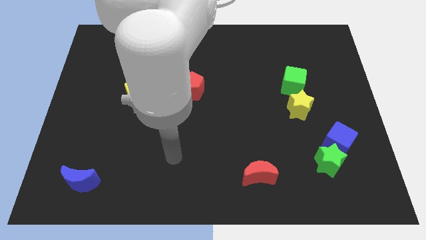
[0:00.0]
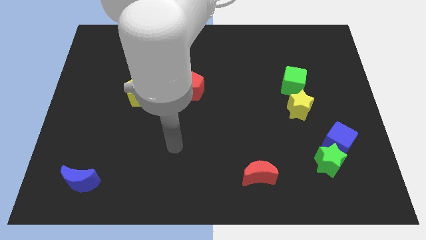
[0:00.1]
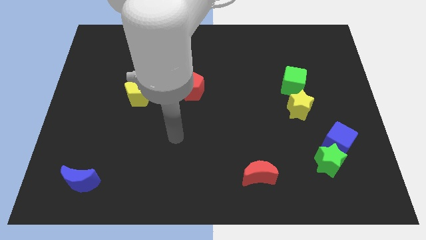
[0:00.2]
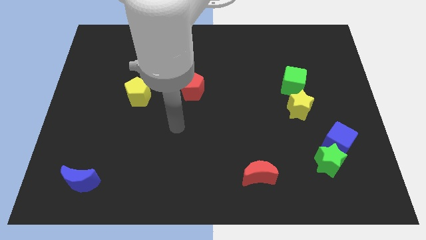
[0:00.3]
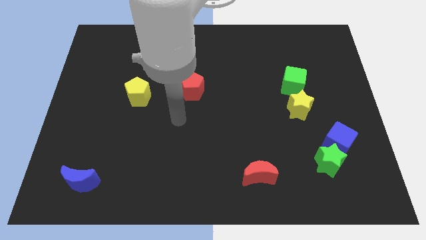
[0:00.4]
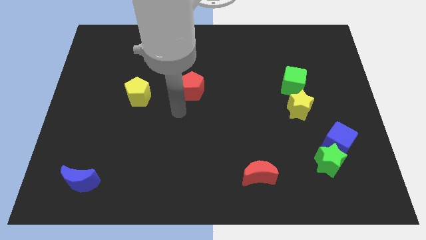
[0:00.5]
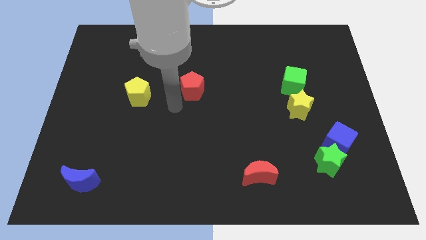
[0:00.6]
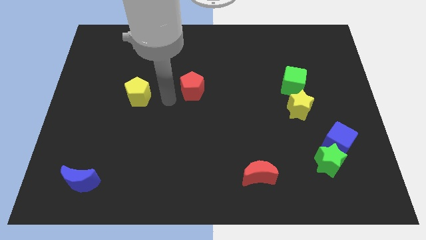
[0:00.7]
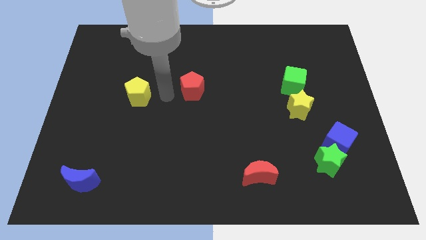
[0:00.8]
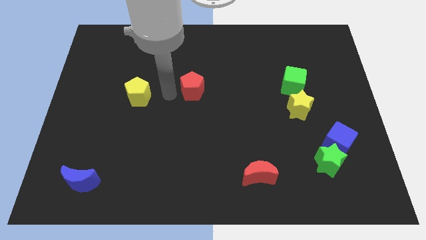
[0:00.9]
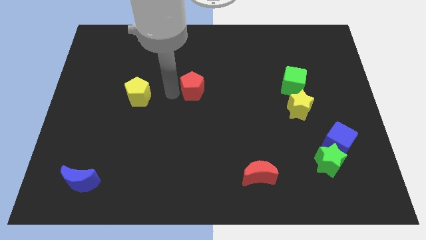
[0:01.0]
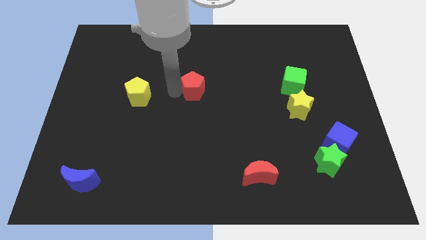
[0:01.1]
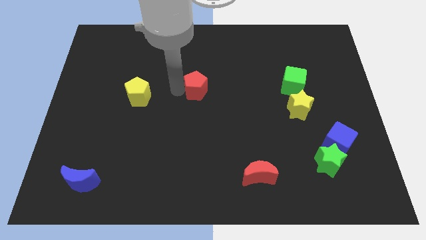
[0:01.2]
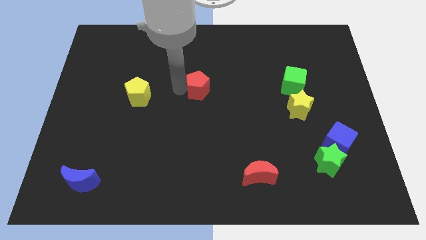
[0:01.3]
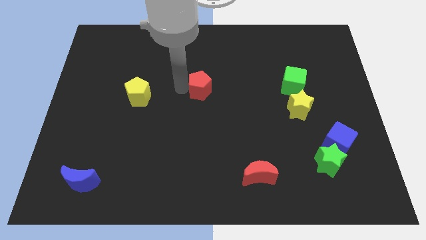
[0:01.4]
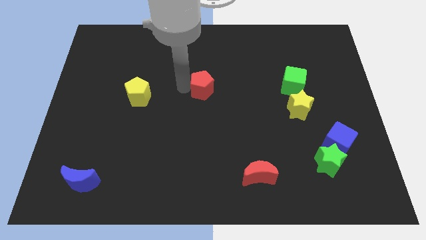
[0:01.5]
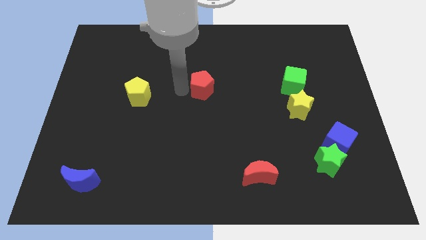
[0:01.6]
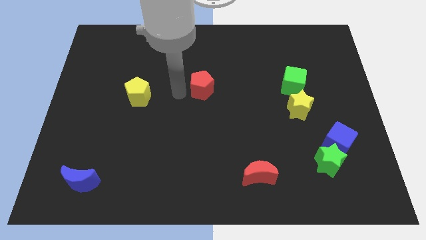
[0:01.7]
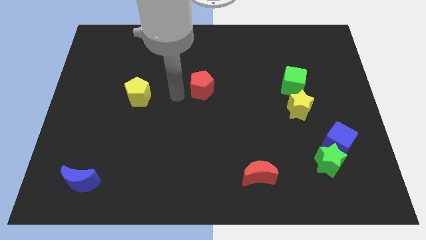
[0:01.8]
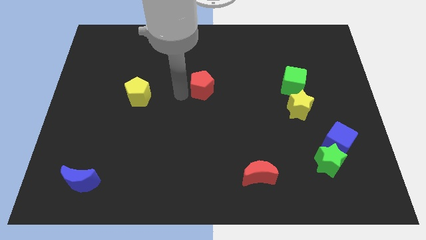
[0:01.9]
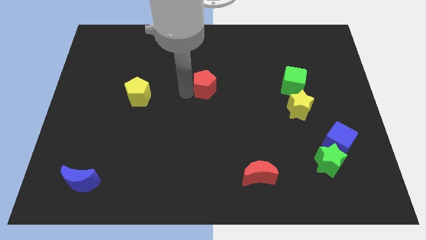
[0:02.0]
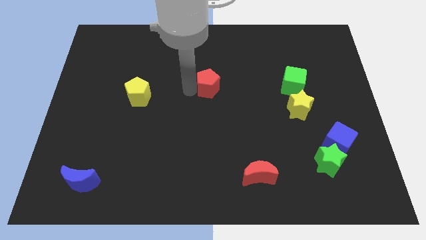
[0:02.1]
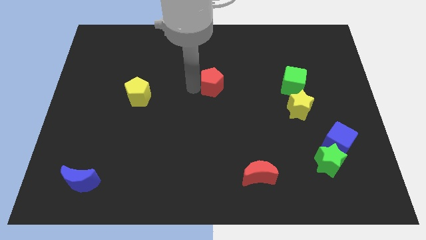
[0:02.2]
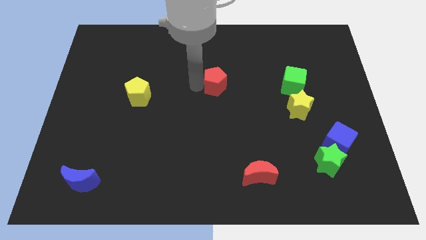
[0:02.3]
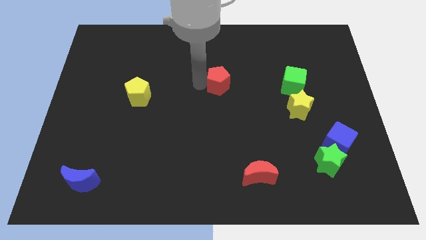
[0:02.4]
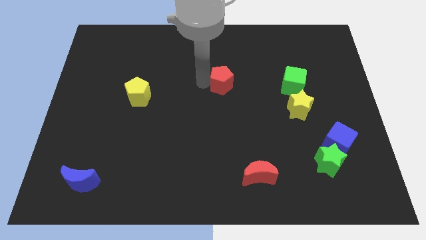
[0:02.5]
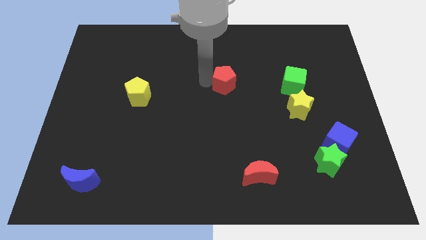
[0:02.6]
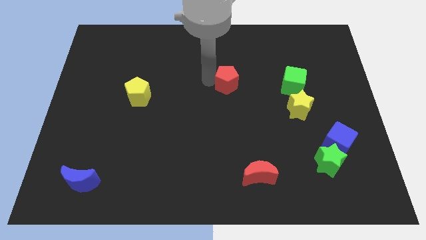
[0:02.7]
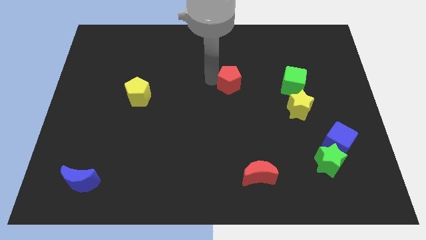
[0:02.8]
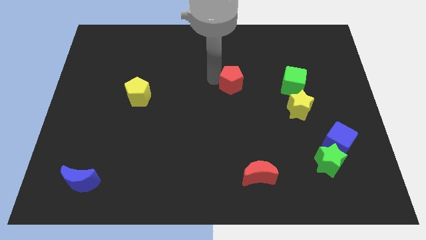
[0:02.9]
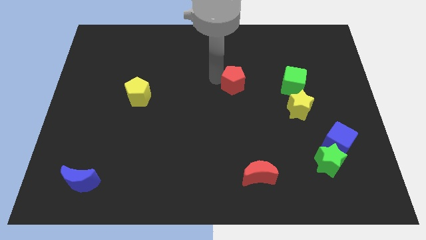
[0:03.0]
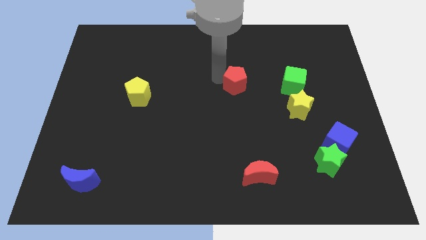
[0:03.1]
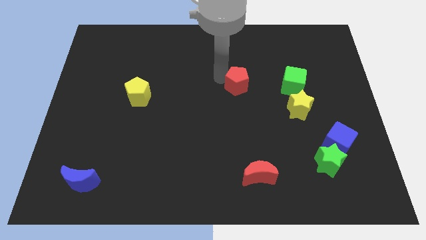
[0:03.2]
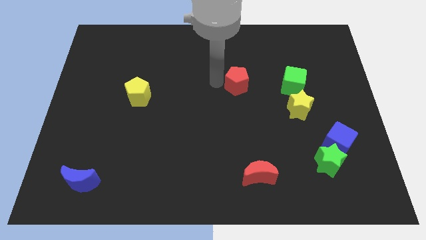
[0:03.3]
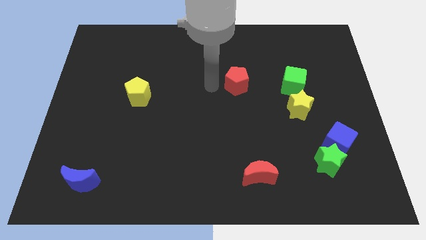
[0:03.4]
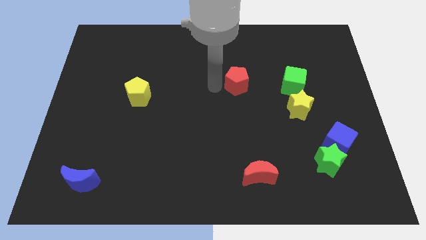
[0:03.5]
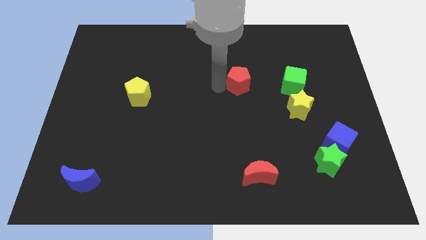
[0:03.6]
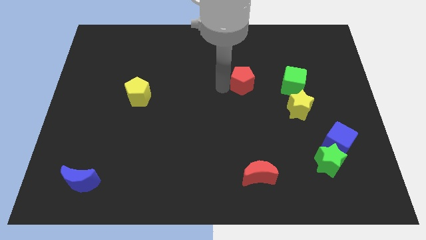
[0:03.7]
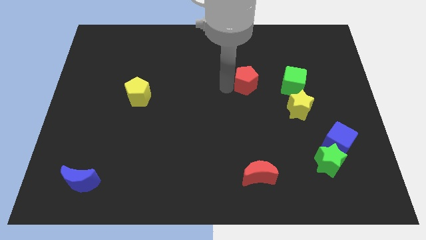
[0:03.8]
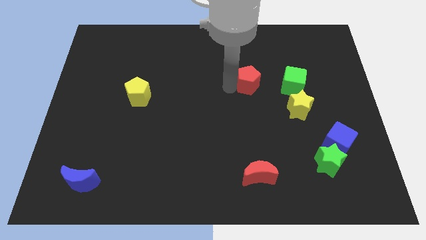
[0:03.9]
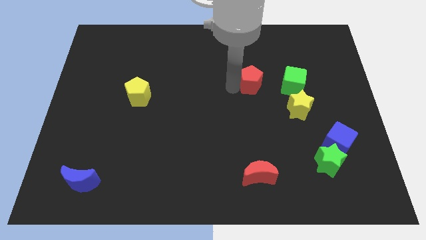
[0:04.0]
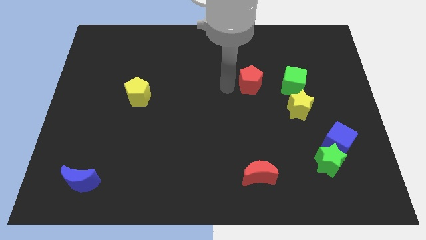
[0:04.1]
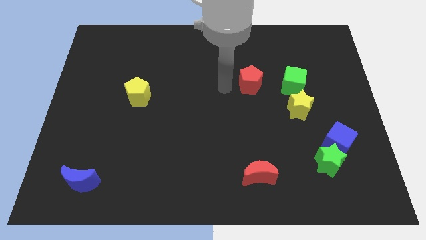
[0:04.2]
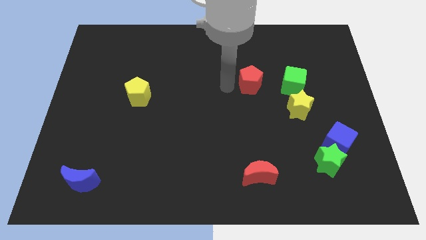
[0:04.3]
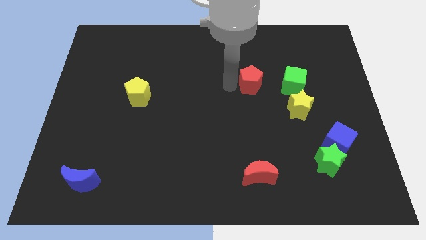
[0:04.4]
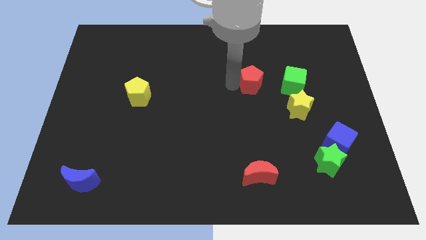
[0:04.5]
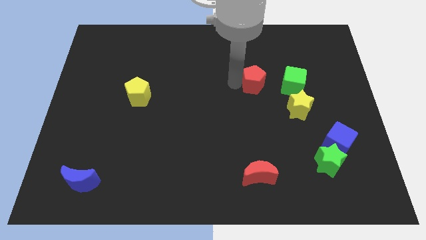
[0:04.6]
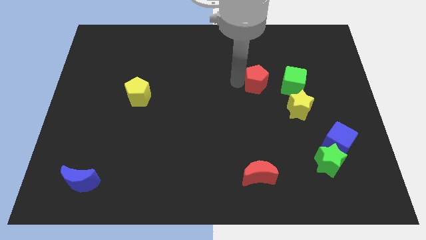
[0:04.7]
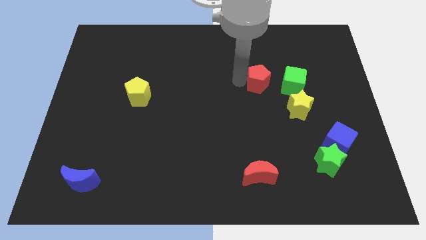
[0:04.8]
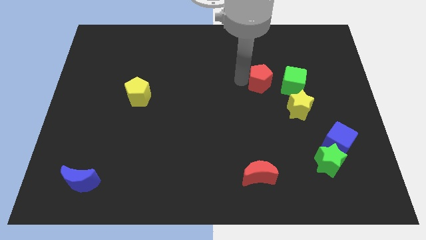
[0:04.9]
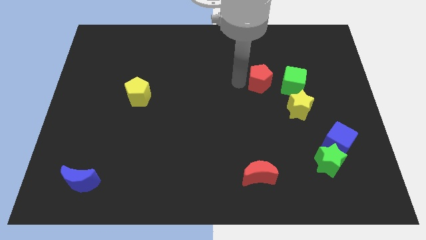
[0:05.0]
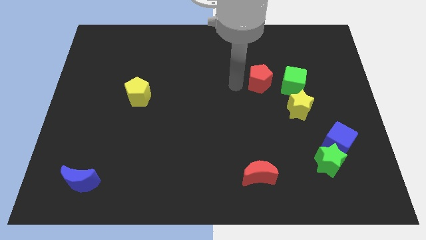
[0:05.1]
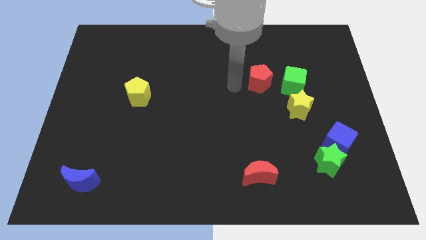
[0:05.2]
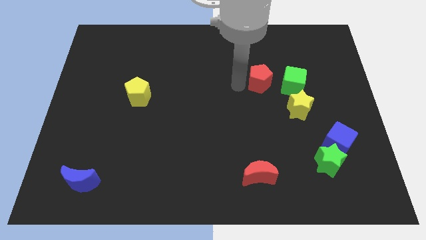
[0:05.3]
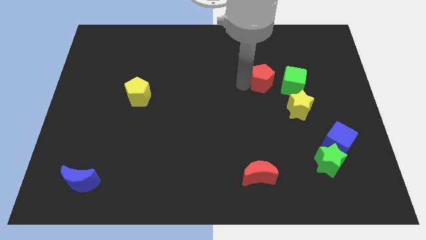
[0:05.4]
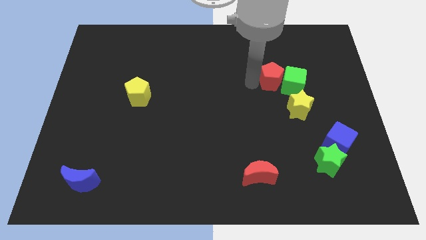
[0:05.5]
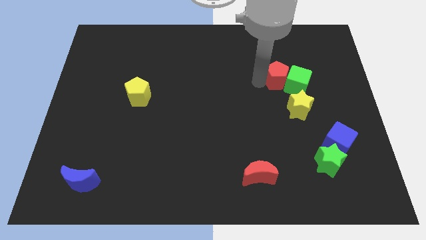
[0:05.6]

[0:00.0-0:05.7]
push the red pentagon right

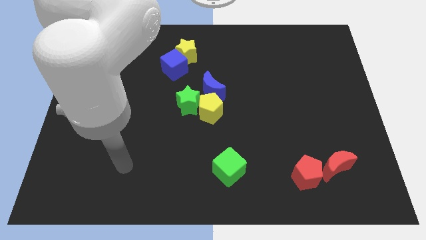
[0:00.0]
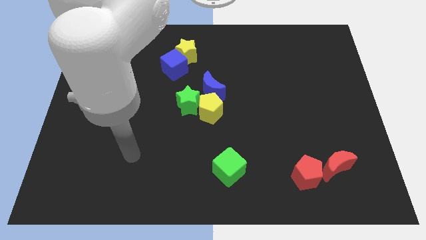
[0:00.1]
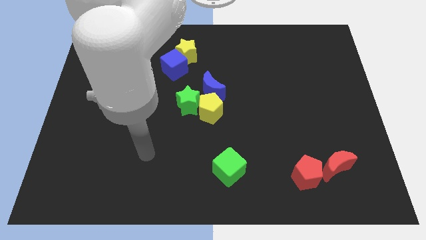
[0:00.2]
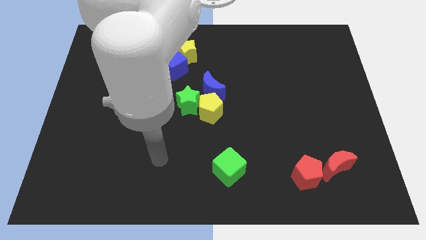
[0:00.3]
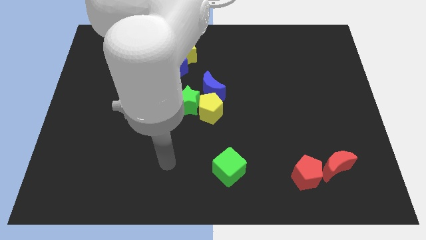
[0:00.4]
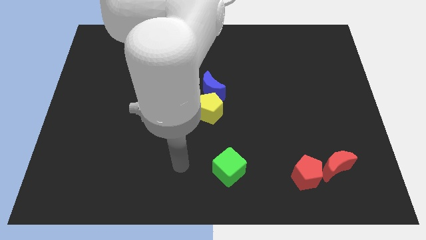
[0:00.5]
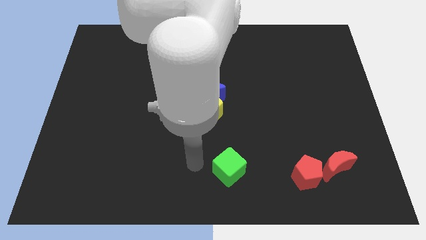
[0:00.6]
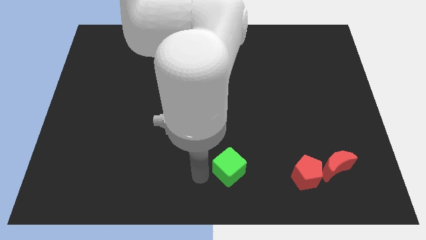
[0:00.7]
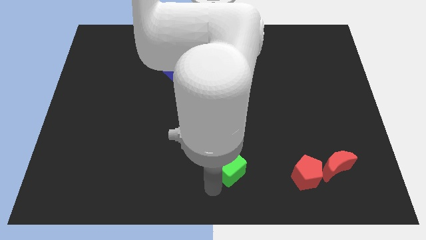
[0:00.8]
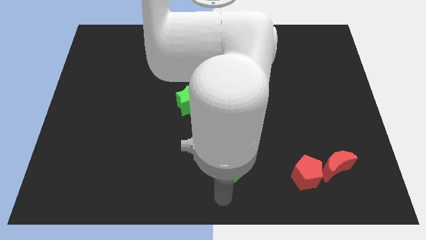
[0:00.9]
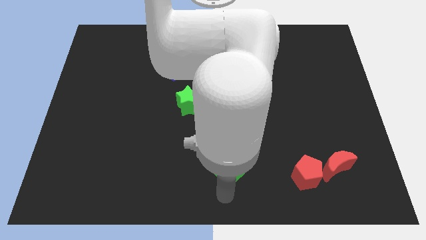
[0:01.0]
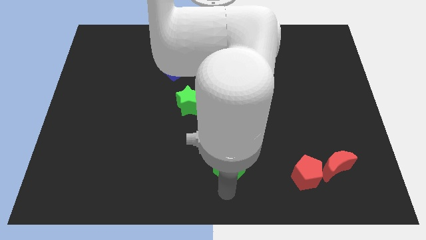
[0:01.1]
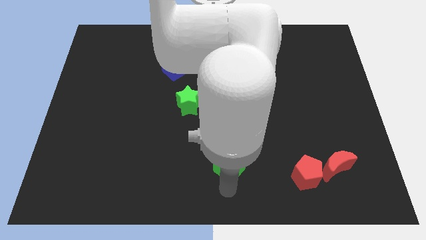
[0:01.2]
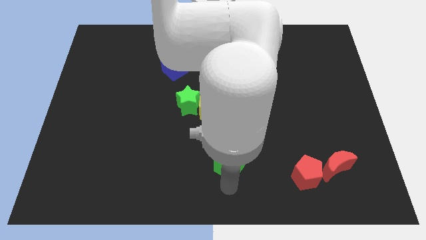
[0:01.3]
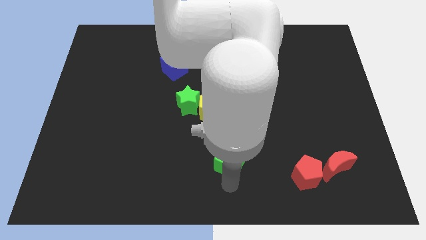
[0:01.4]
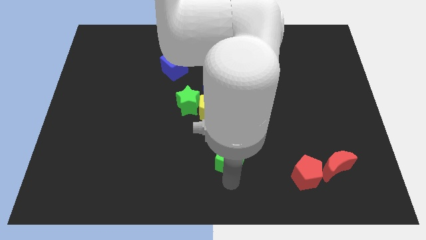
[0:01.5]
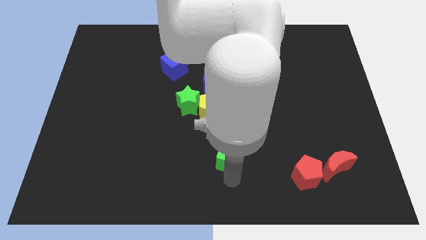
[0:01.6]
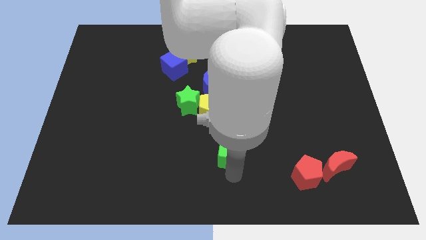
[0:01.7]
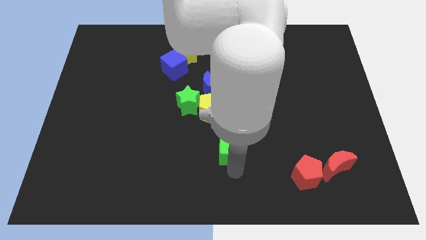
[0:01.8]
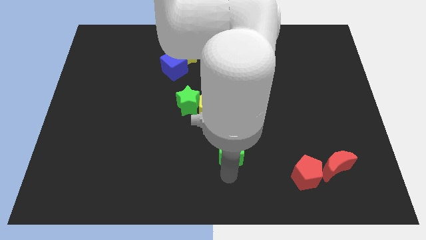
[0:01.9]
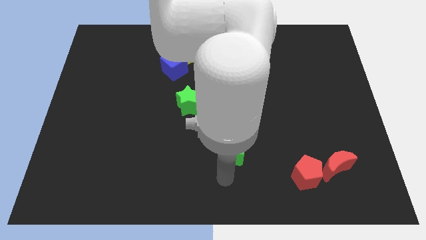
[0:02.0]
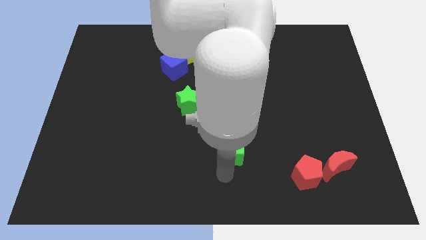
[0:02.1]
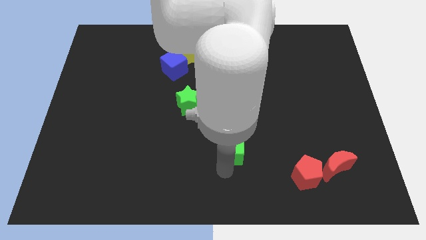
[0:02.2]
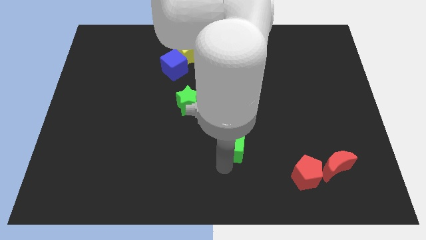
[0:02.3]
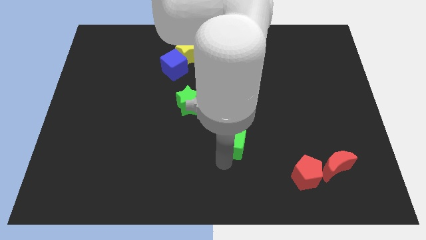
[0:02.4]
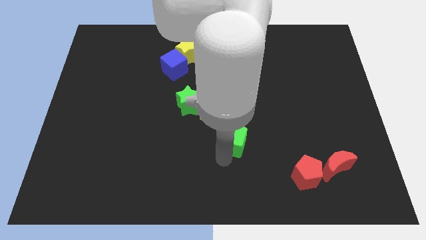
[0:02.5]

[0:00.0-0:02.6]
move the green cube slightly up
